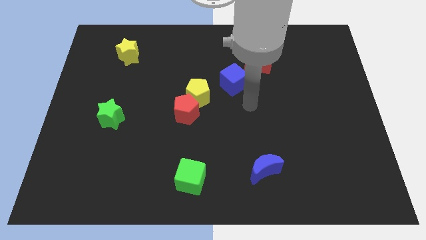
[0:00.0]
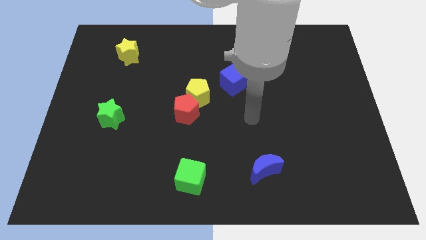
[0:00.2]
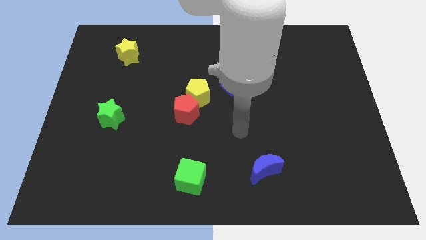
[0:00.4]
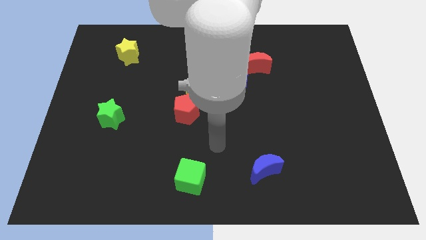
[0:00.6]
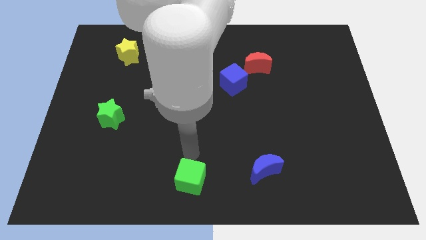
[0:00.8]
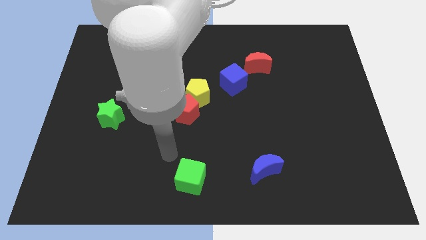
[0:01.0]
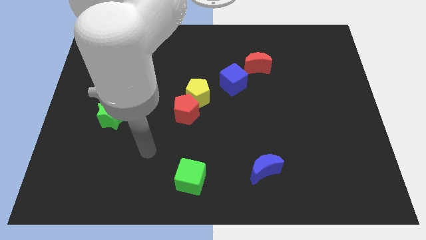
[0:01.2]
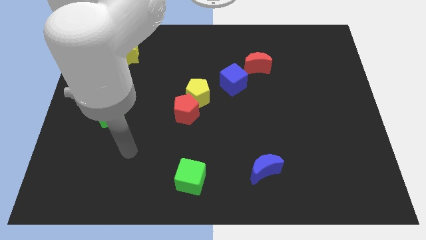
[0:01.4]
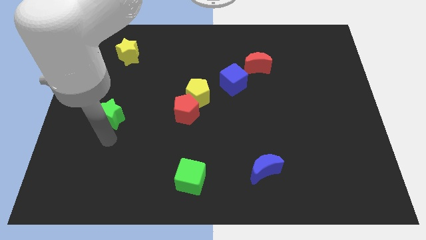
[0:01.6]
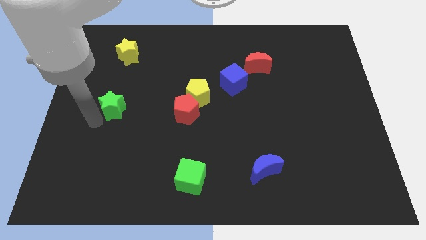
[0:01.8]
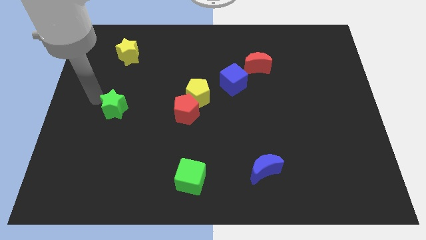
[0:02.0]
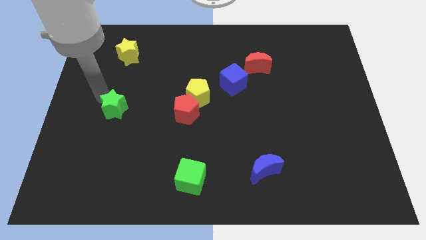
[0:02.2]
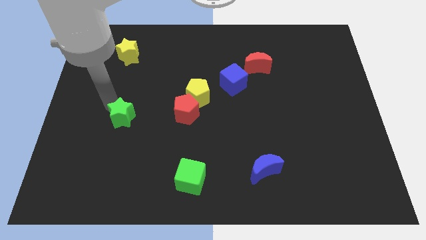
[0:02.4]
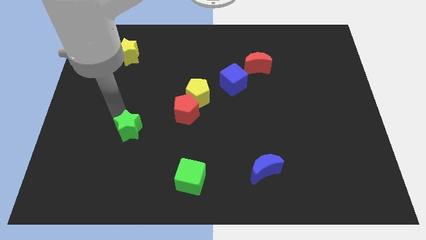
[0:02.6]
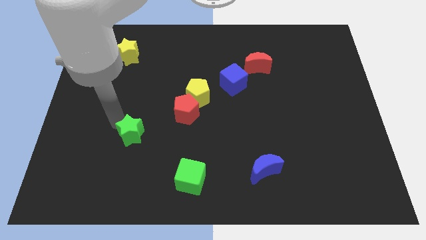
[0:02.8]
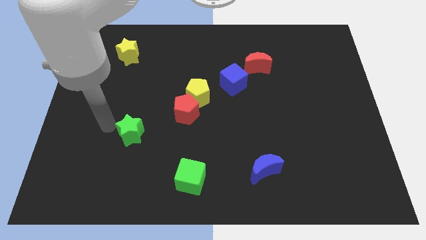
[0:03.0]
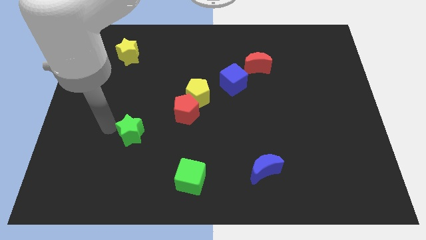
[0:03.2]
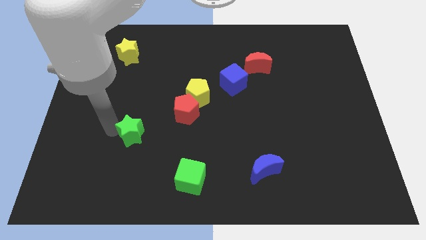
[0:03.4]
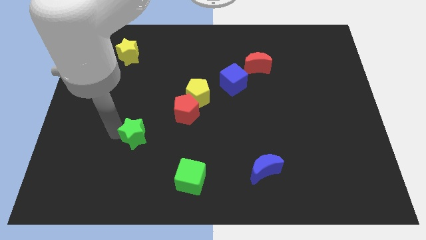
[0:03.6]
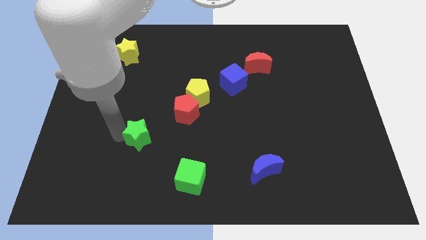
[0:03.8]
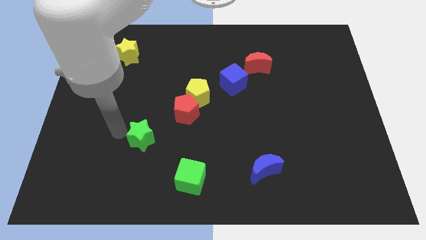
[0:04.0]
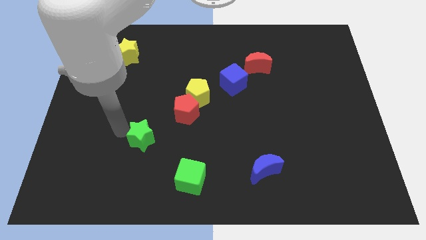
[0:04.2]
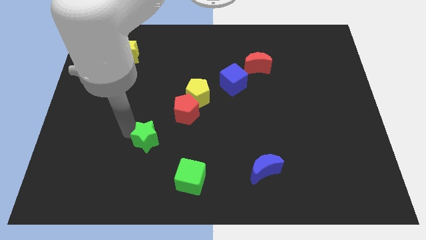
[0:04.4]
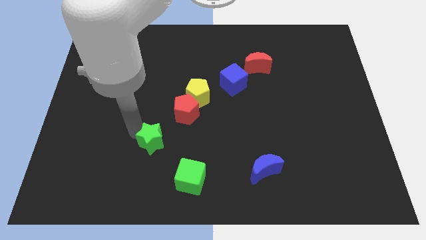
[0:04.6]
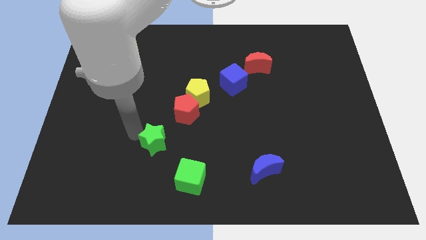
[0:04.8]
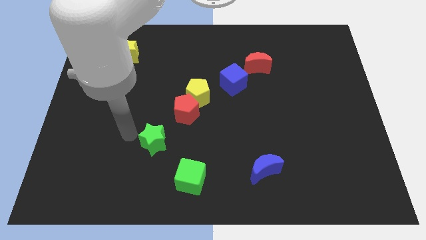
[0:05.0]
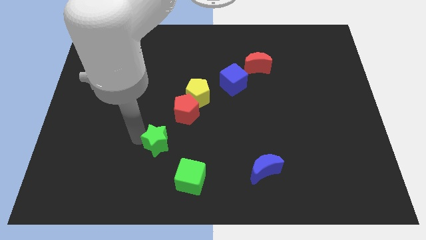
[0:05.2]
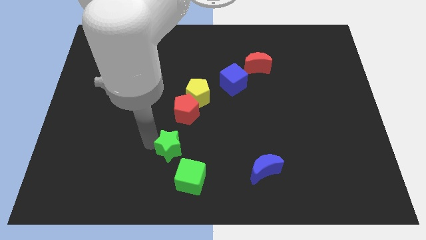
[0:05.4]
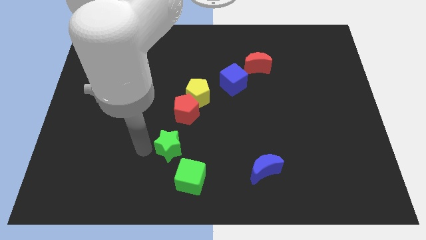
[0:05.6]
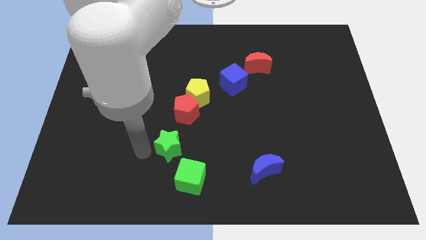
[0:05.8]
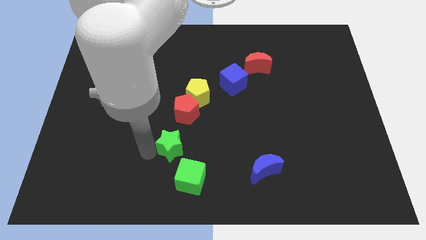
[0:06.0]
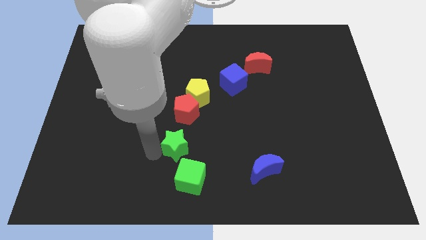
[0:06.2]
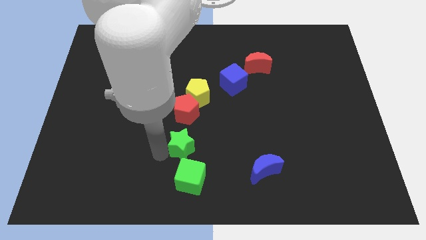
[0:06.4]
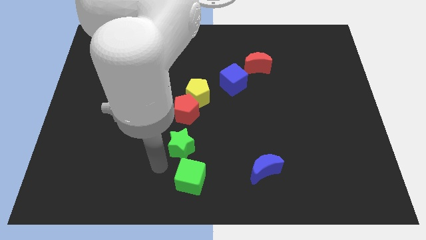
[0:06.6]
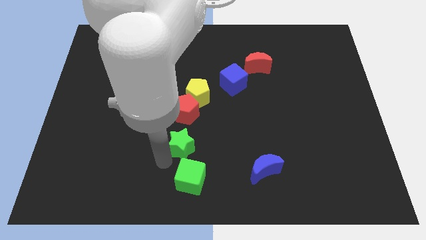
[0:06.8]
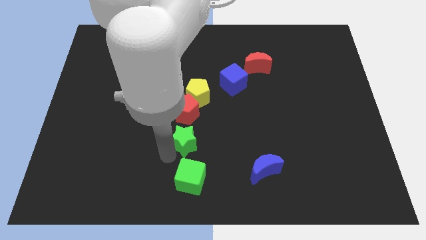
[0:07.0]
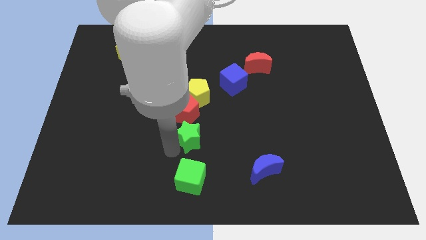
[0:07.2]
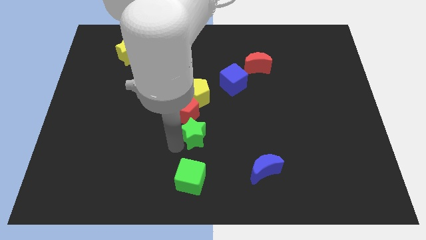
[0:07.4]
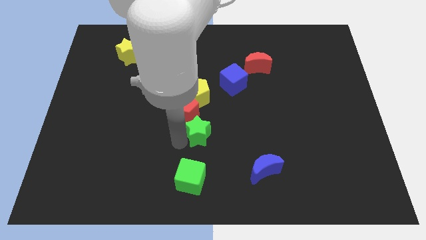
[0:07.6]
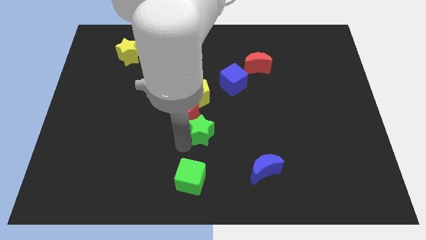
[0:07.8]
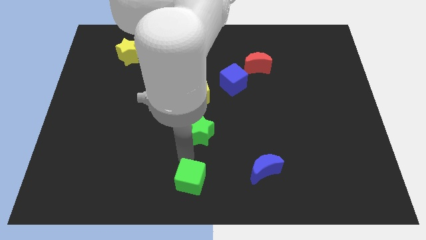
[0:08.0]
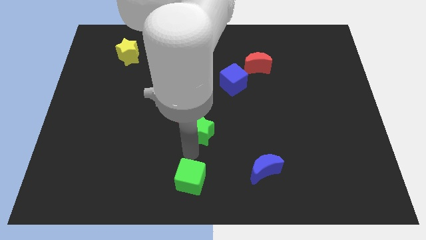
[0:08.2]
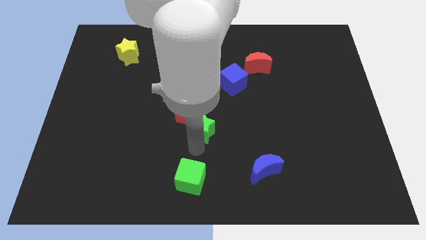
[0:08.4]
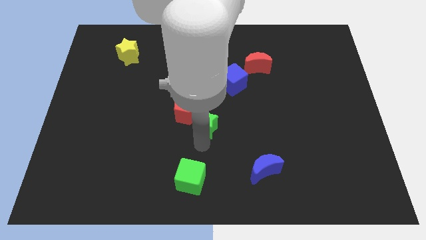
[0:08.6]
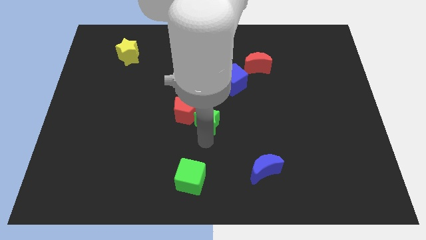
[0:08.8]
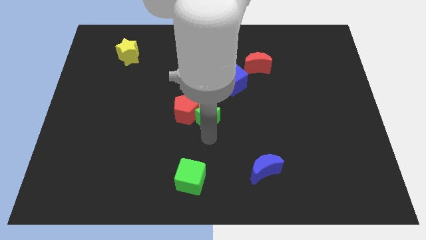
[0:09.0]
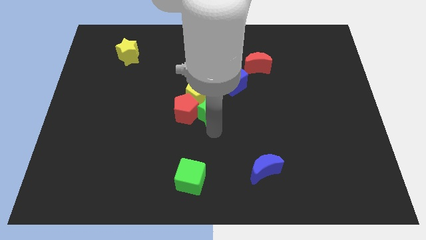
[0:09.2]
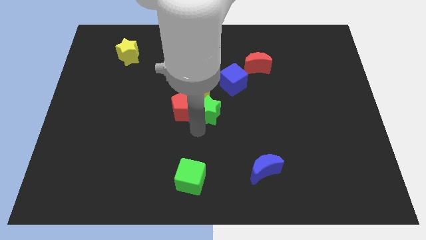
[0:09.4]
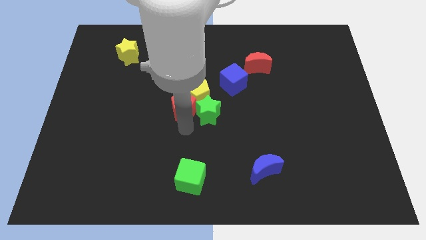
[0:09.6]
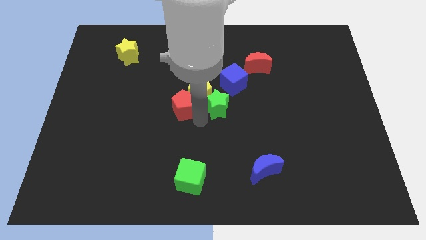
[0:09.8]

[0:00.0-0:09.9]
move the green star to the right of the yellow pentagon

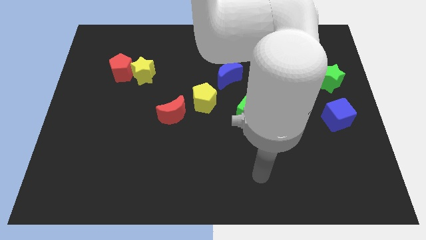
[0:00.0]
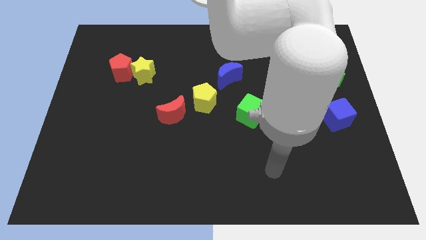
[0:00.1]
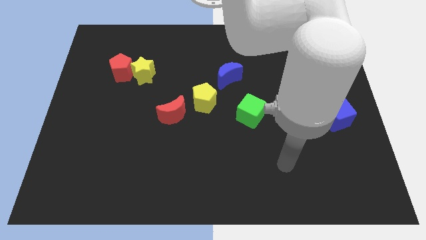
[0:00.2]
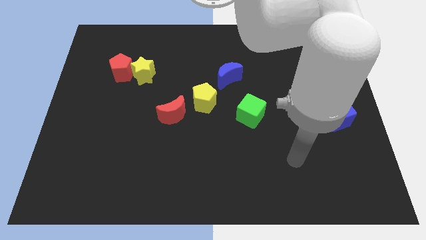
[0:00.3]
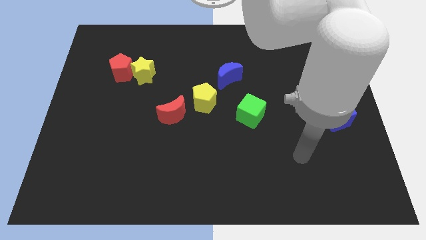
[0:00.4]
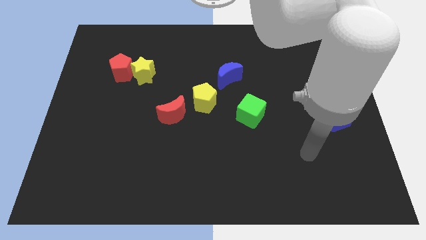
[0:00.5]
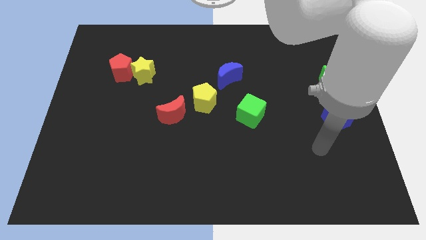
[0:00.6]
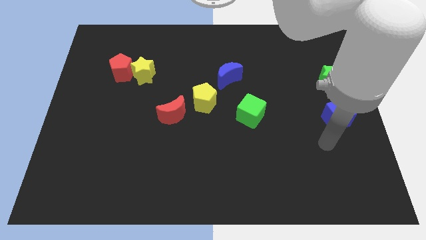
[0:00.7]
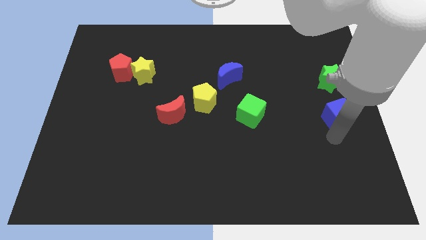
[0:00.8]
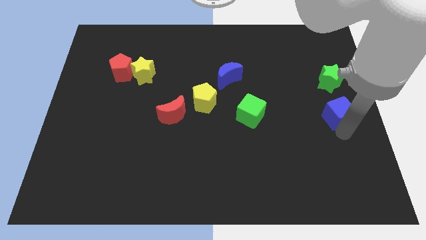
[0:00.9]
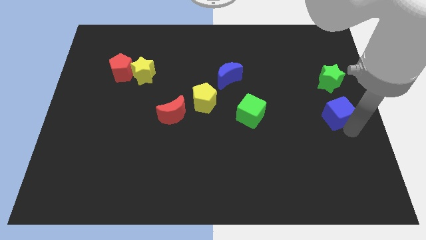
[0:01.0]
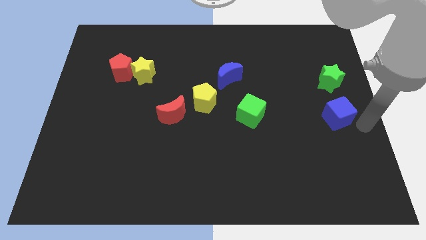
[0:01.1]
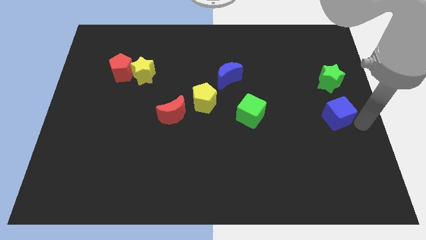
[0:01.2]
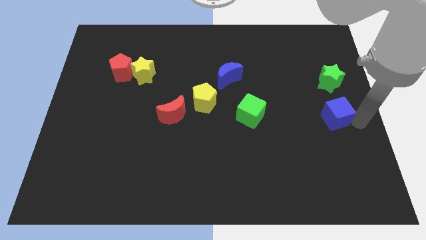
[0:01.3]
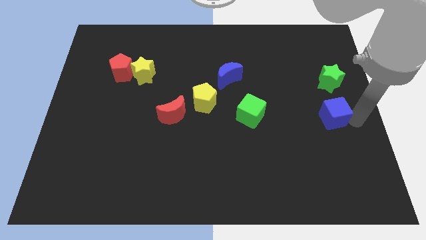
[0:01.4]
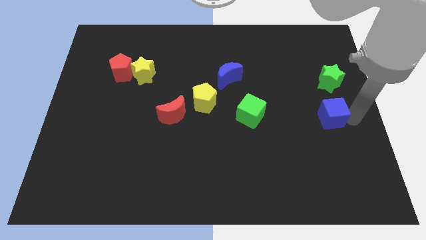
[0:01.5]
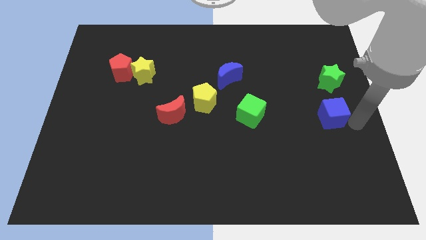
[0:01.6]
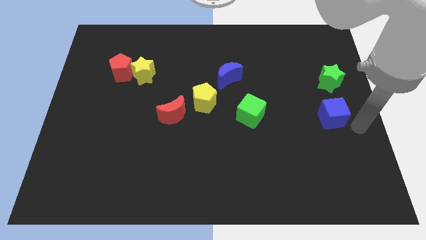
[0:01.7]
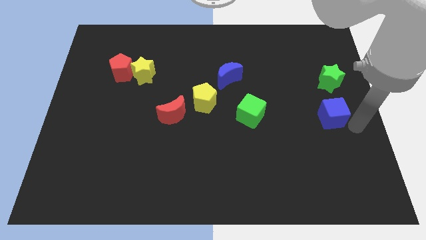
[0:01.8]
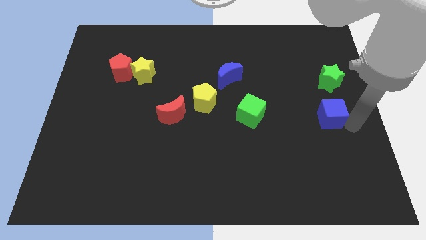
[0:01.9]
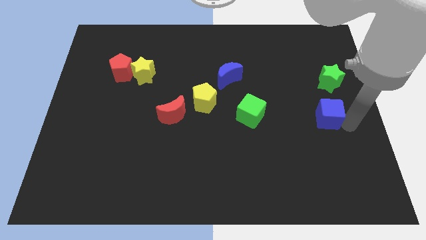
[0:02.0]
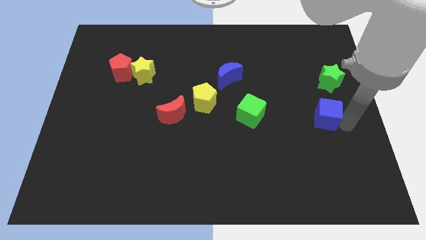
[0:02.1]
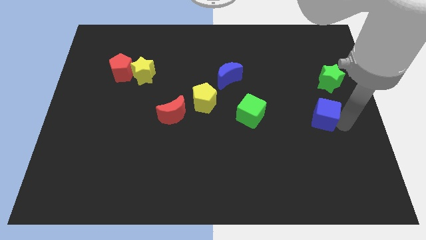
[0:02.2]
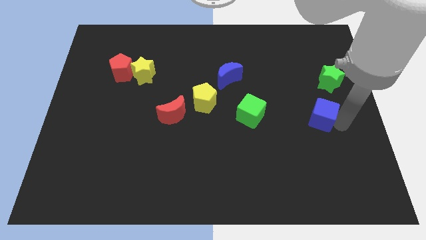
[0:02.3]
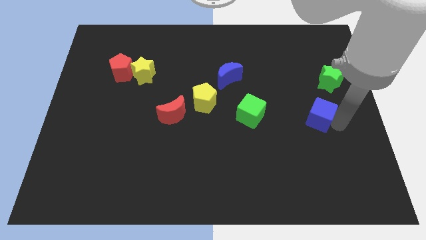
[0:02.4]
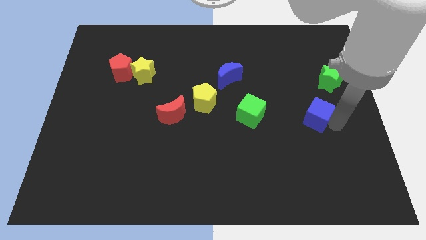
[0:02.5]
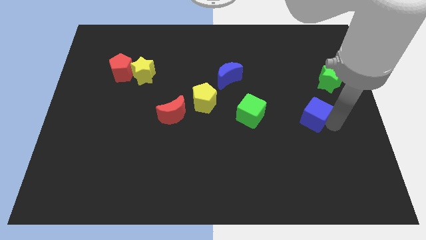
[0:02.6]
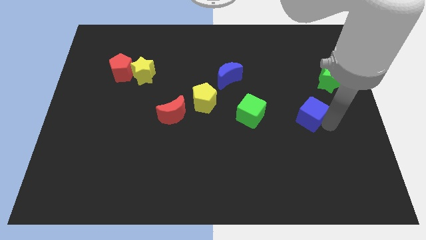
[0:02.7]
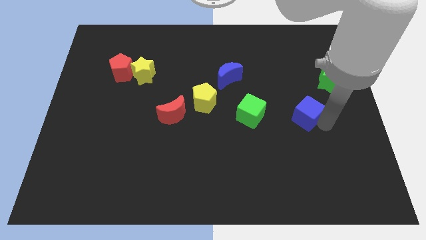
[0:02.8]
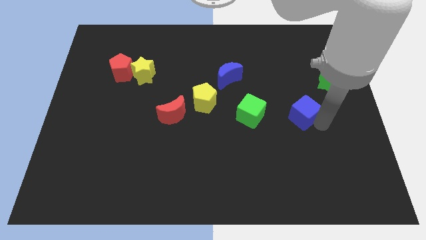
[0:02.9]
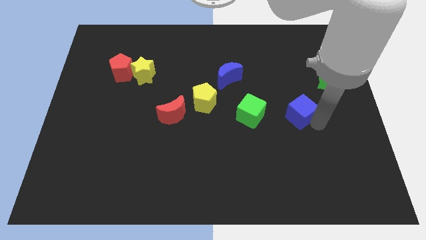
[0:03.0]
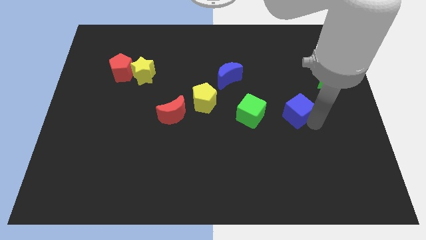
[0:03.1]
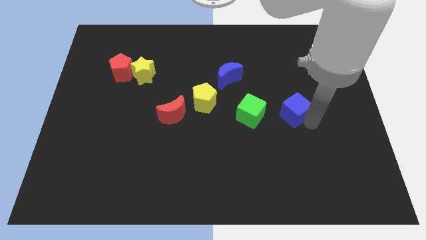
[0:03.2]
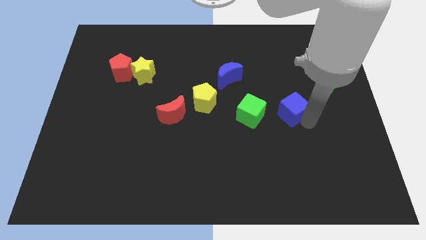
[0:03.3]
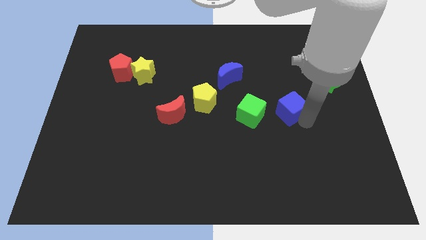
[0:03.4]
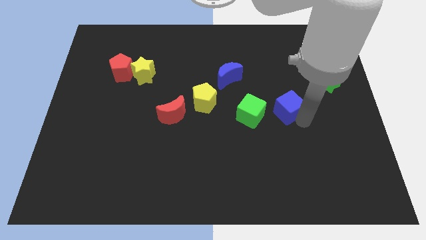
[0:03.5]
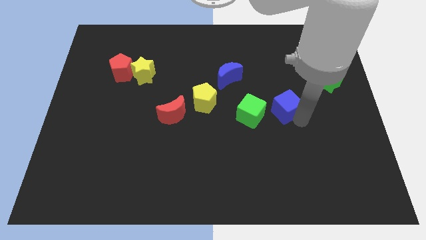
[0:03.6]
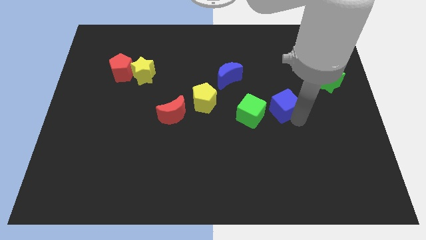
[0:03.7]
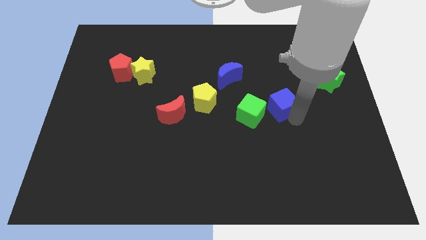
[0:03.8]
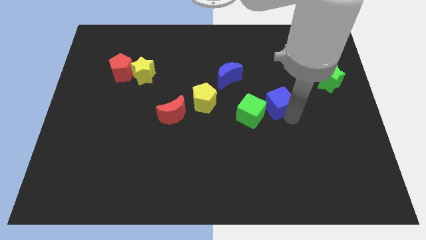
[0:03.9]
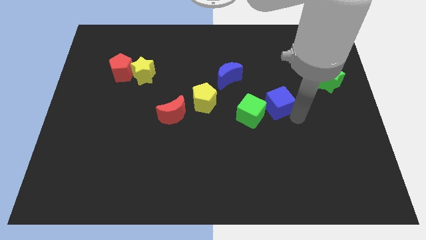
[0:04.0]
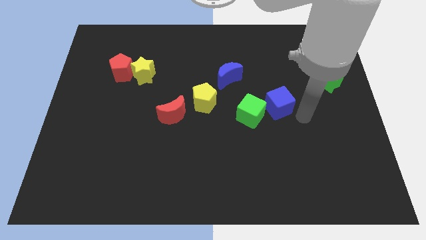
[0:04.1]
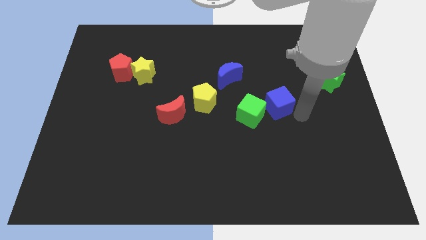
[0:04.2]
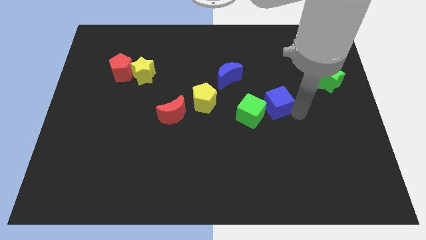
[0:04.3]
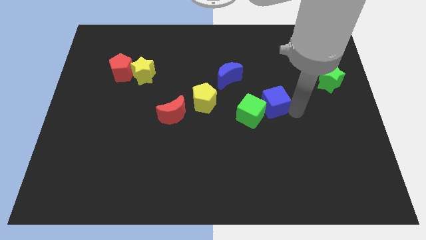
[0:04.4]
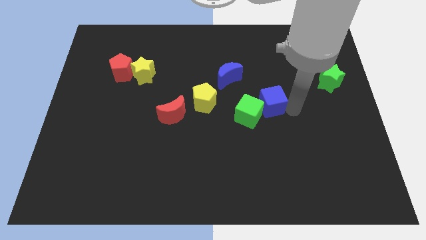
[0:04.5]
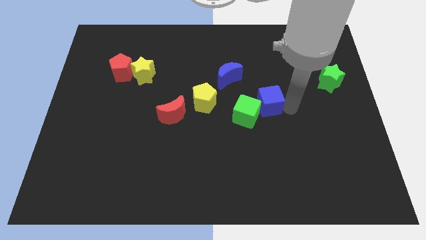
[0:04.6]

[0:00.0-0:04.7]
slide the blue cube diagonally down and to the right of the blue moon
